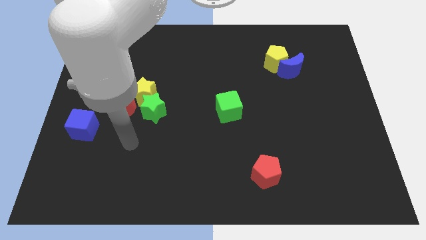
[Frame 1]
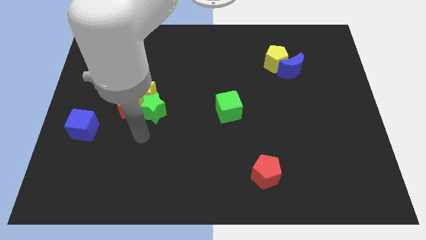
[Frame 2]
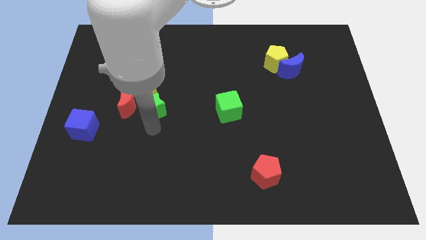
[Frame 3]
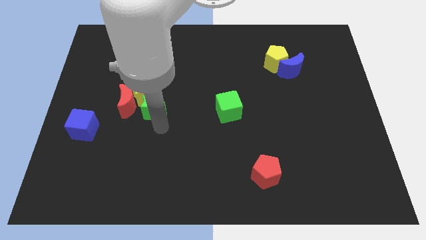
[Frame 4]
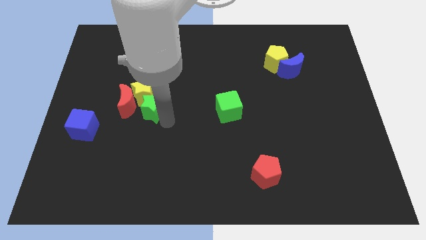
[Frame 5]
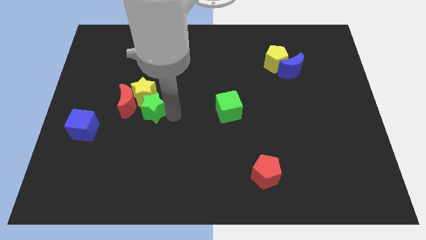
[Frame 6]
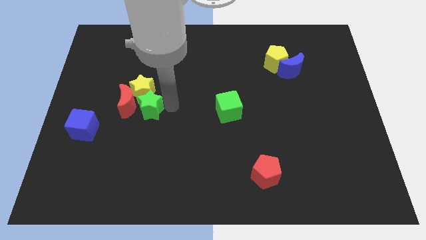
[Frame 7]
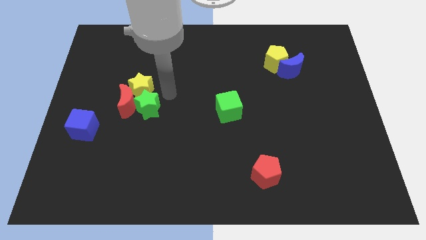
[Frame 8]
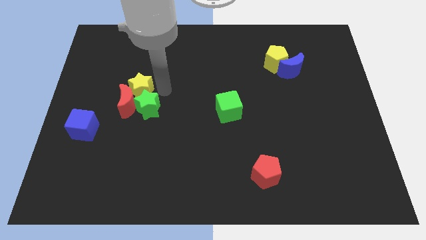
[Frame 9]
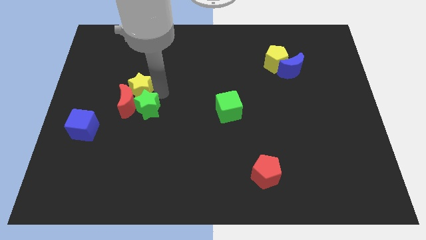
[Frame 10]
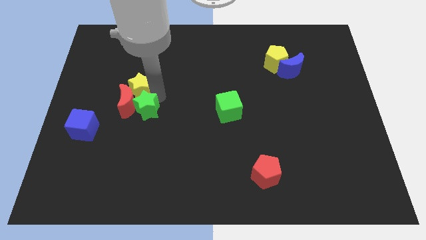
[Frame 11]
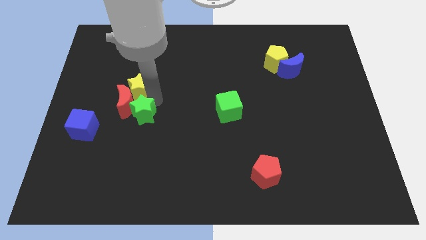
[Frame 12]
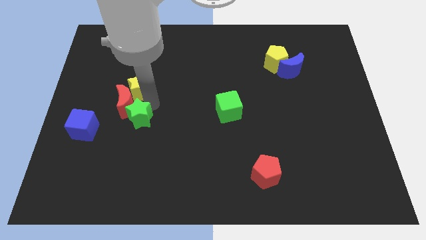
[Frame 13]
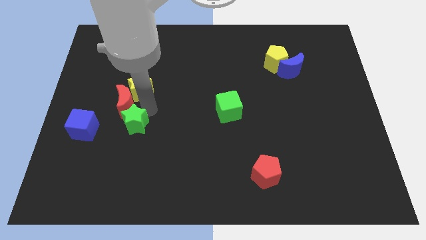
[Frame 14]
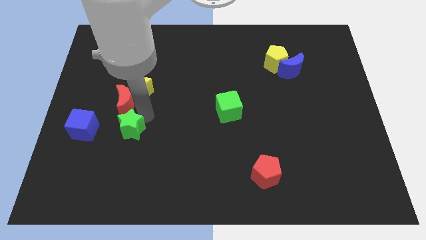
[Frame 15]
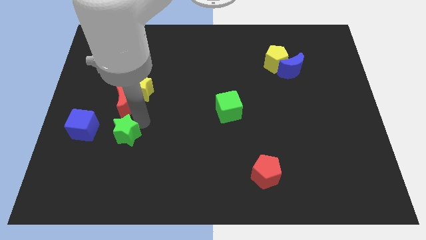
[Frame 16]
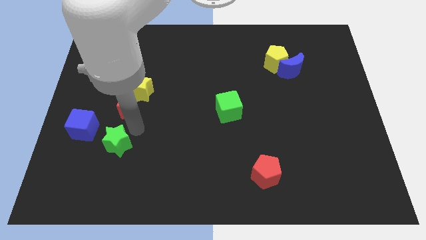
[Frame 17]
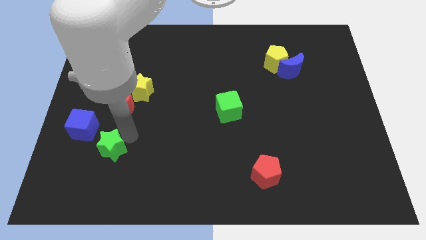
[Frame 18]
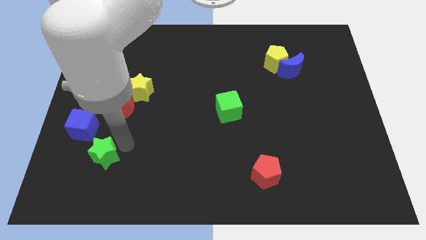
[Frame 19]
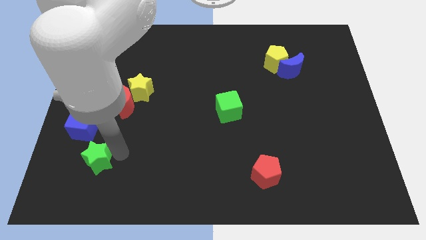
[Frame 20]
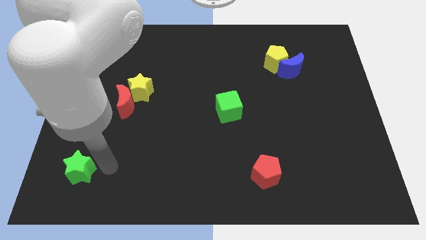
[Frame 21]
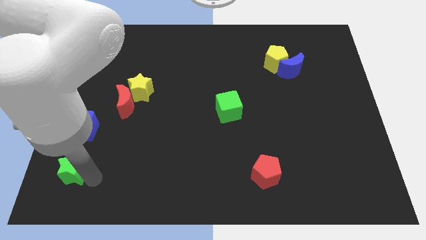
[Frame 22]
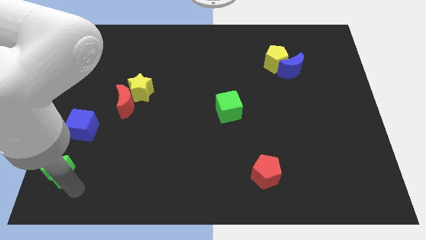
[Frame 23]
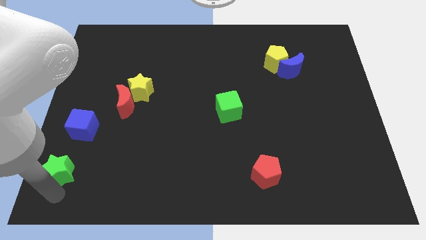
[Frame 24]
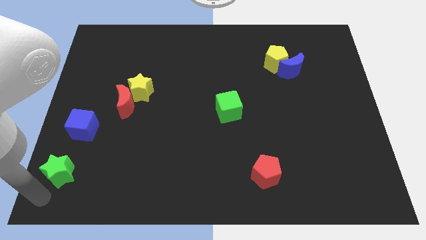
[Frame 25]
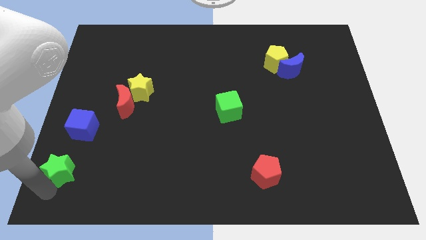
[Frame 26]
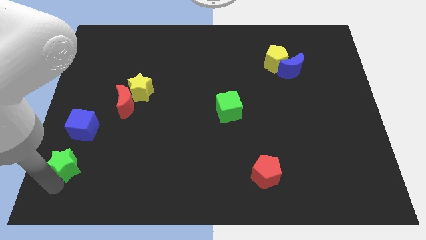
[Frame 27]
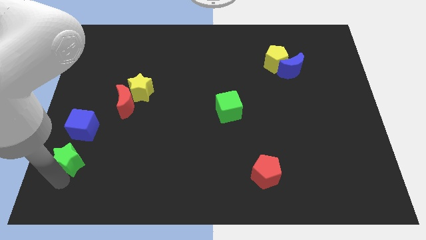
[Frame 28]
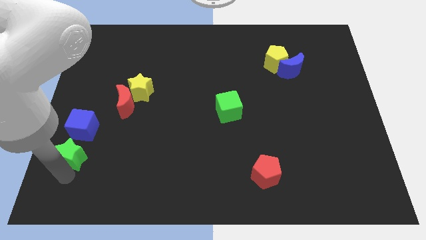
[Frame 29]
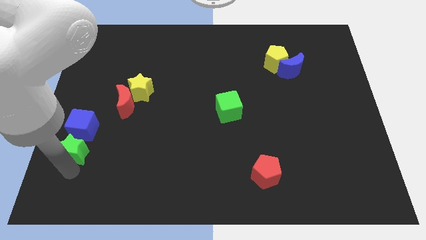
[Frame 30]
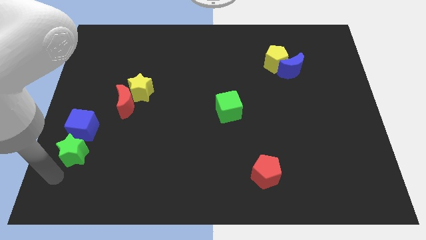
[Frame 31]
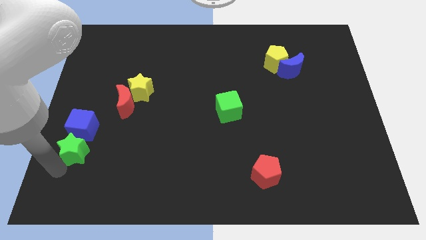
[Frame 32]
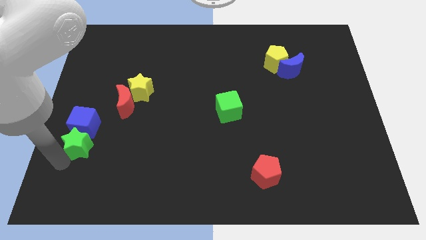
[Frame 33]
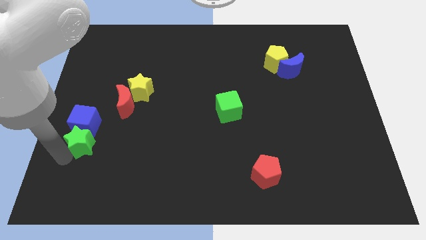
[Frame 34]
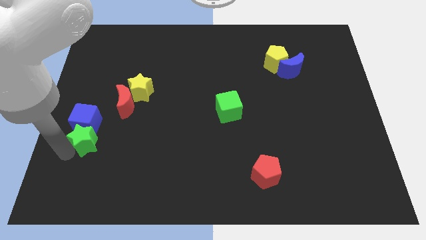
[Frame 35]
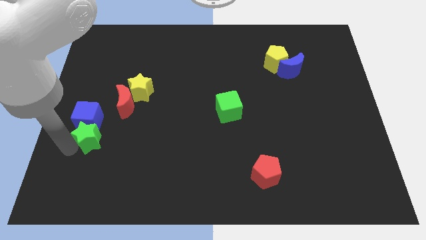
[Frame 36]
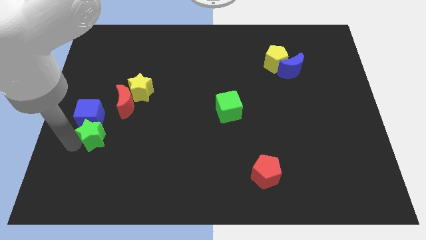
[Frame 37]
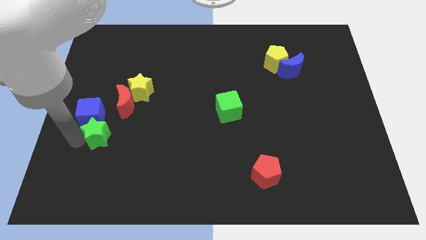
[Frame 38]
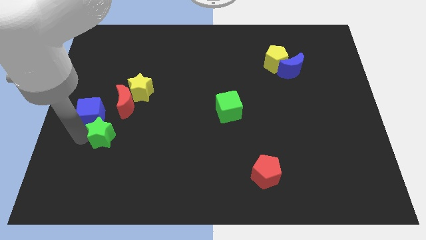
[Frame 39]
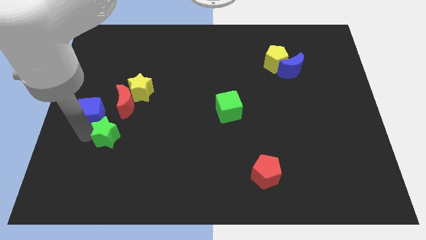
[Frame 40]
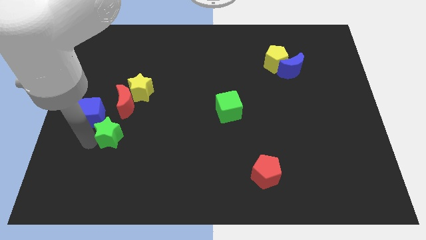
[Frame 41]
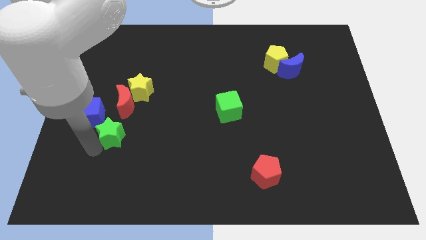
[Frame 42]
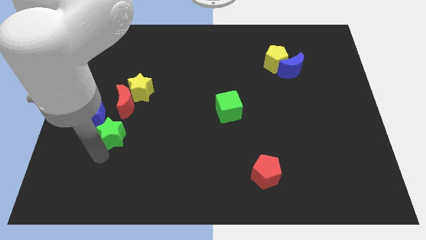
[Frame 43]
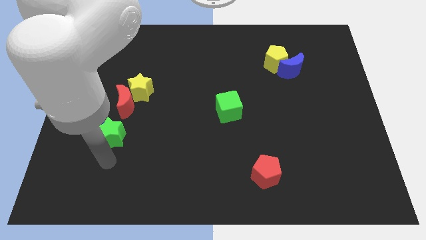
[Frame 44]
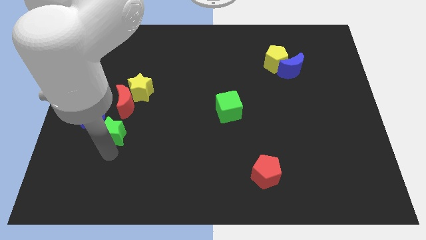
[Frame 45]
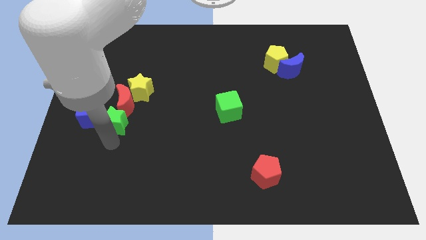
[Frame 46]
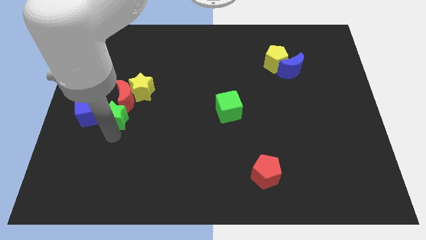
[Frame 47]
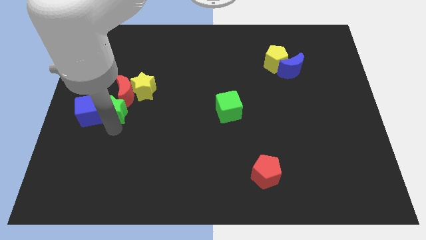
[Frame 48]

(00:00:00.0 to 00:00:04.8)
slide the green star to the top right side of the blue cube

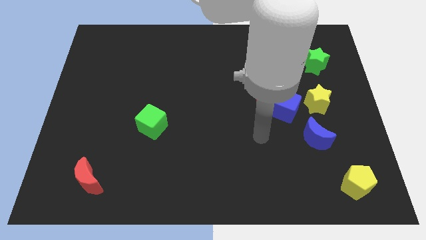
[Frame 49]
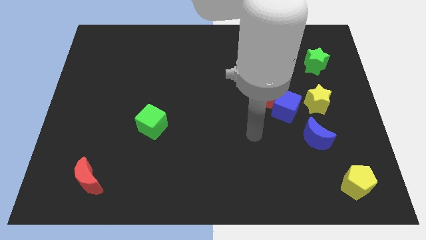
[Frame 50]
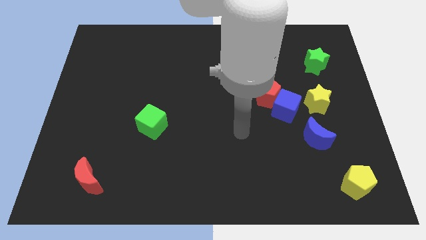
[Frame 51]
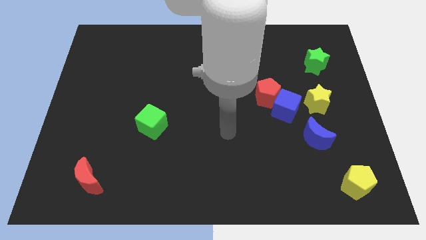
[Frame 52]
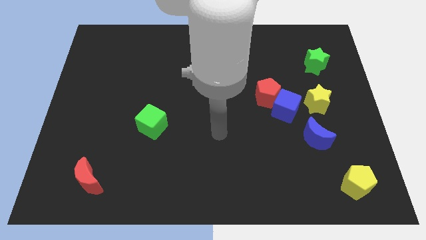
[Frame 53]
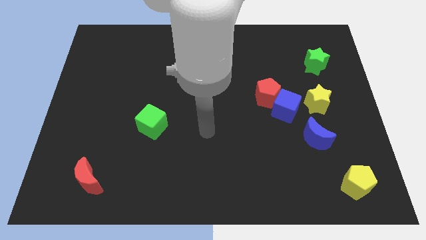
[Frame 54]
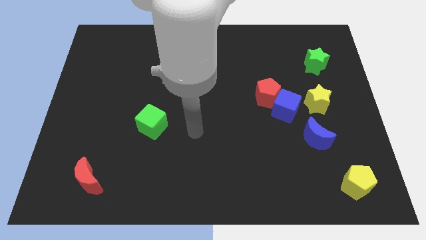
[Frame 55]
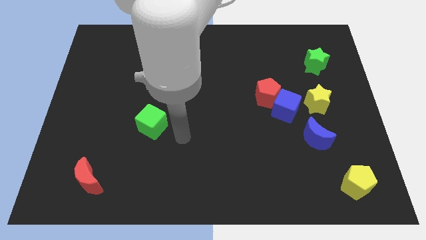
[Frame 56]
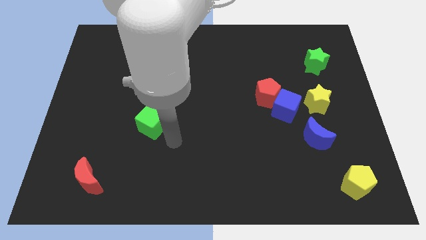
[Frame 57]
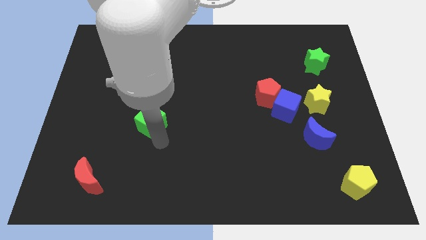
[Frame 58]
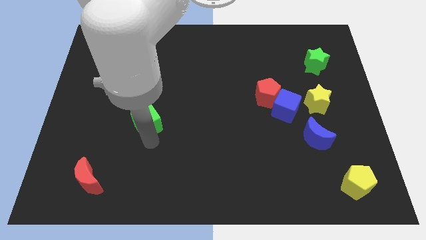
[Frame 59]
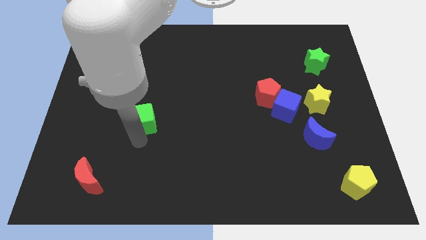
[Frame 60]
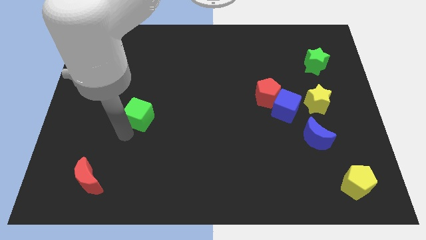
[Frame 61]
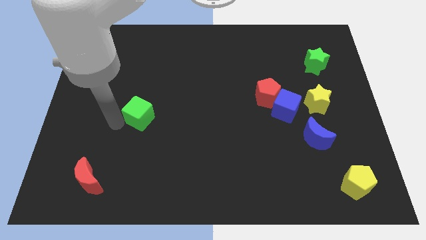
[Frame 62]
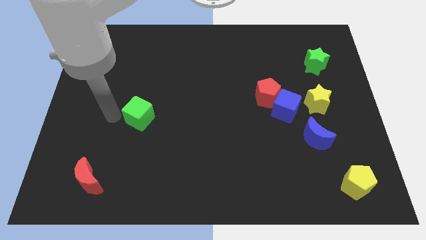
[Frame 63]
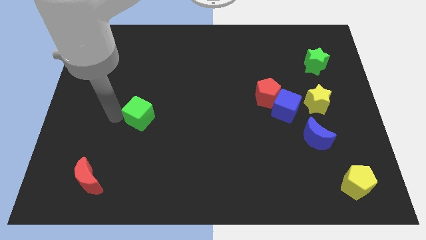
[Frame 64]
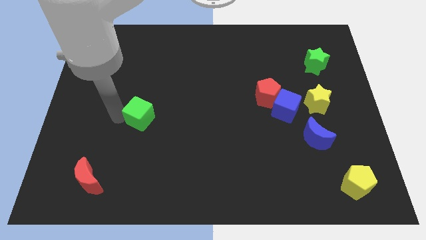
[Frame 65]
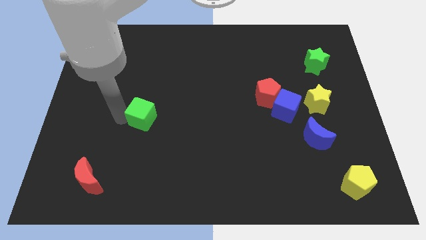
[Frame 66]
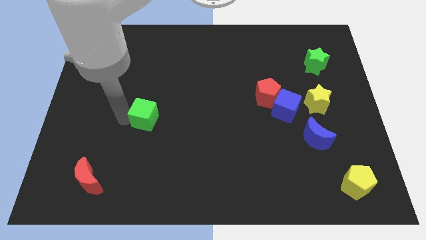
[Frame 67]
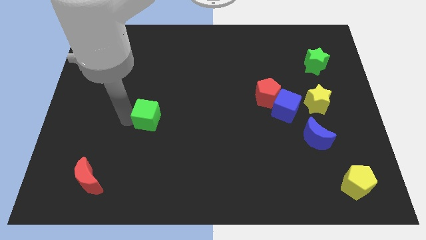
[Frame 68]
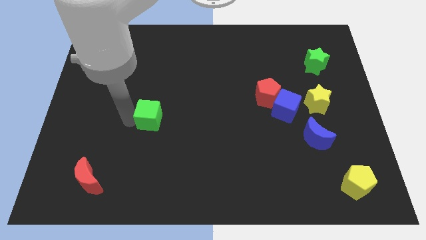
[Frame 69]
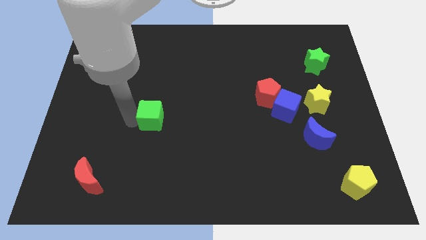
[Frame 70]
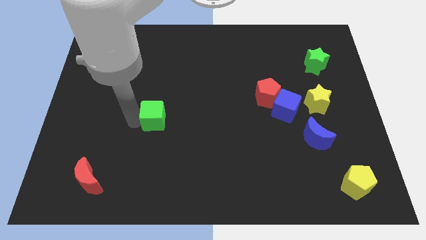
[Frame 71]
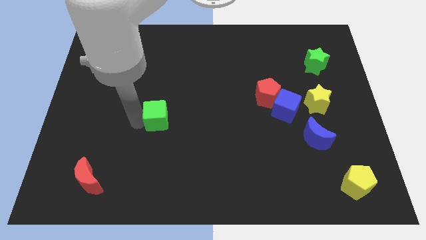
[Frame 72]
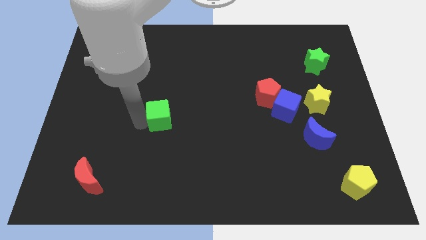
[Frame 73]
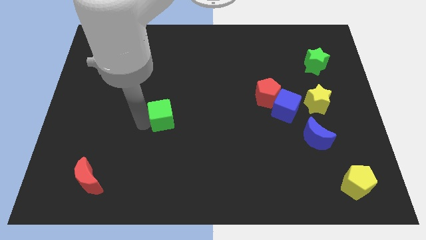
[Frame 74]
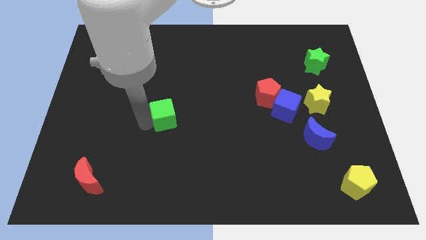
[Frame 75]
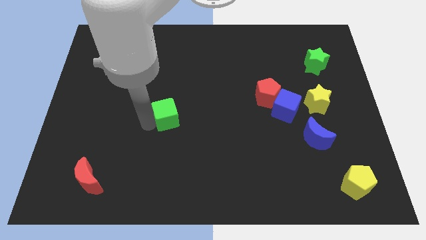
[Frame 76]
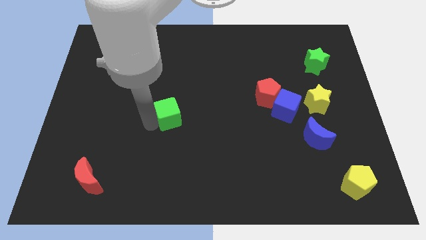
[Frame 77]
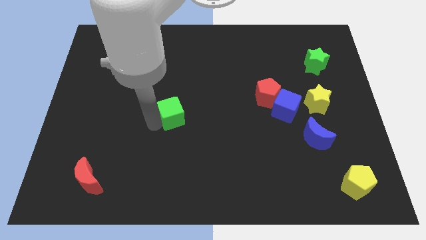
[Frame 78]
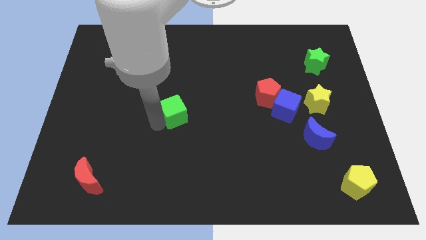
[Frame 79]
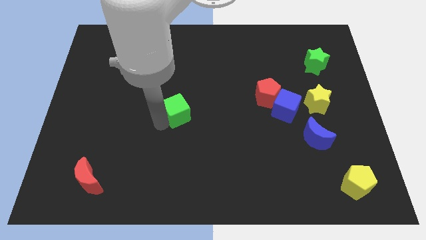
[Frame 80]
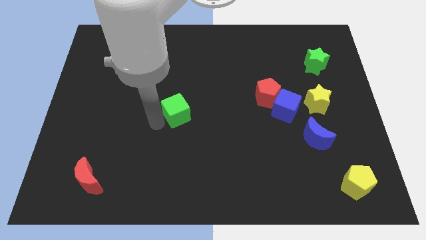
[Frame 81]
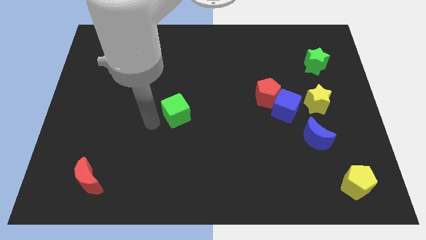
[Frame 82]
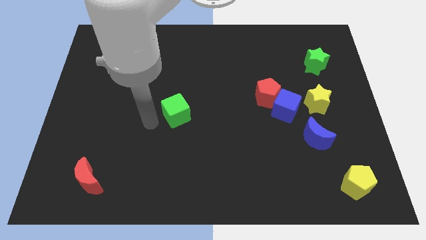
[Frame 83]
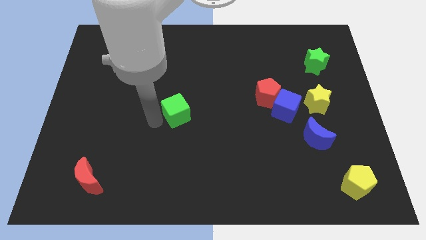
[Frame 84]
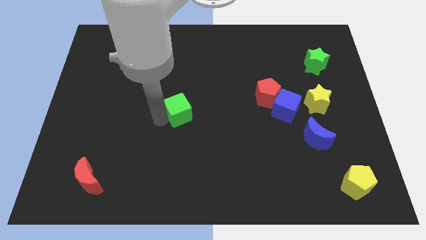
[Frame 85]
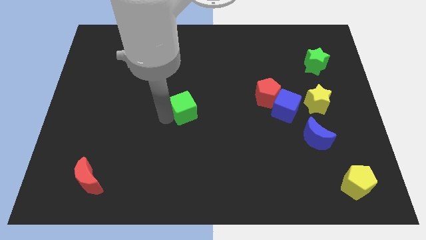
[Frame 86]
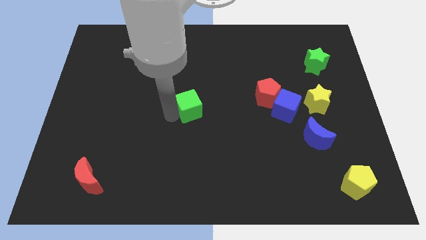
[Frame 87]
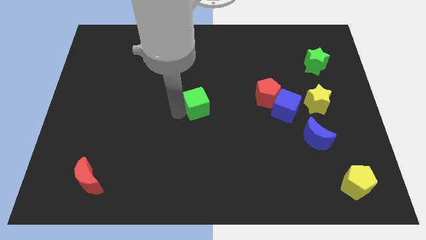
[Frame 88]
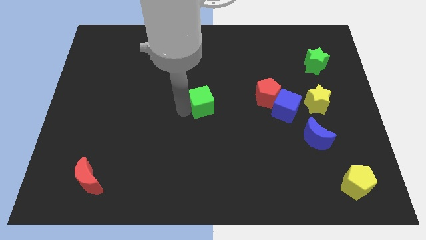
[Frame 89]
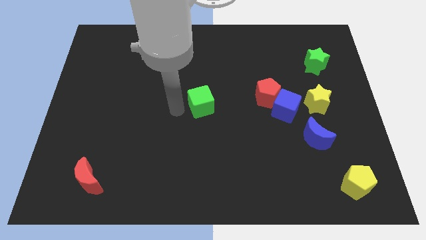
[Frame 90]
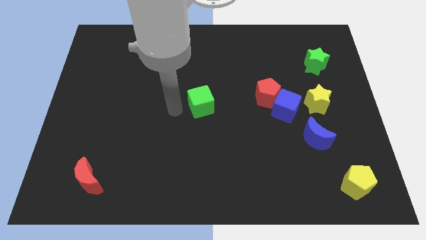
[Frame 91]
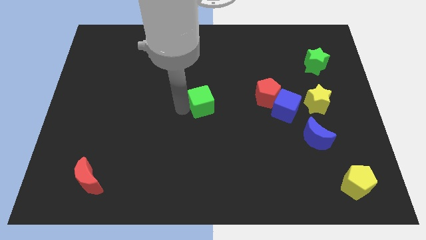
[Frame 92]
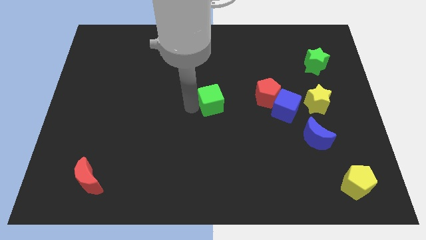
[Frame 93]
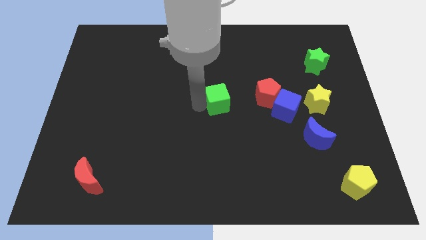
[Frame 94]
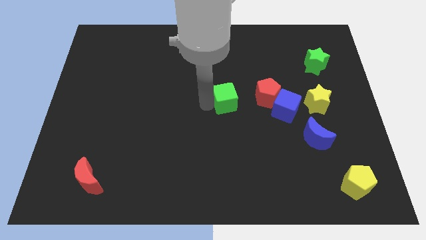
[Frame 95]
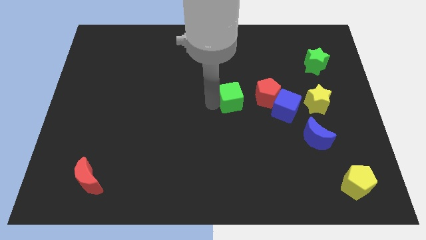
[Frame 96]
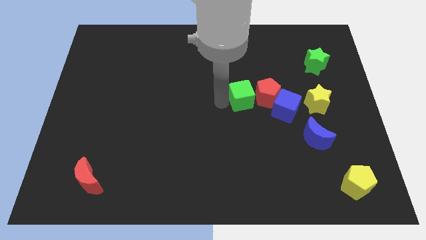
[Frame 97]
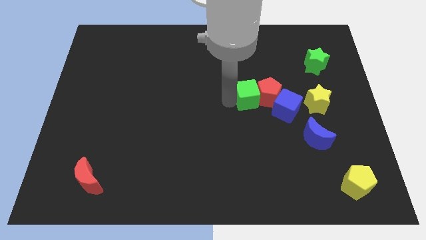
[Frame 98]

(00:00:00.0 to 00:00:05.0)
slide the green cube diagonally up and to the left of the blue cube
